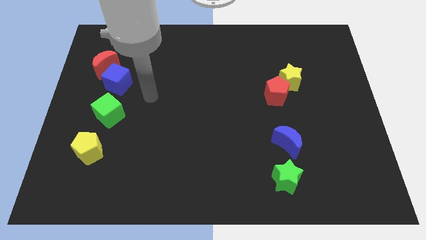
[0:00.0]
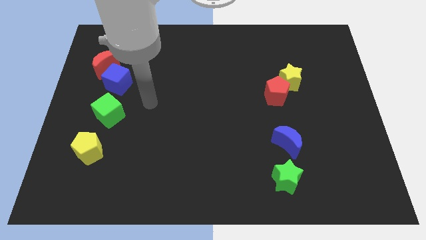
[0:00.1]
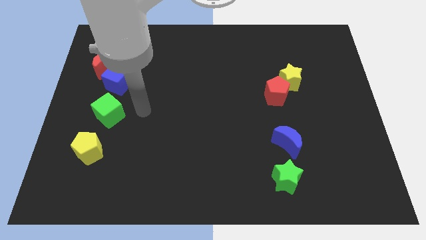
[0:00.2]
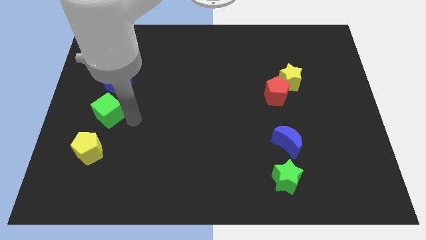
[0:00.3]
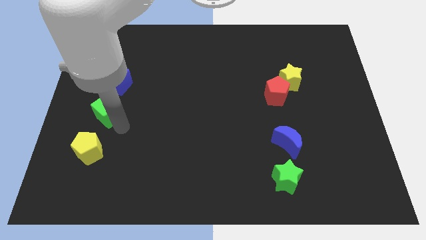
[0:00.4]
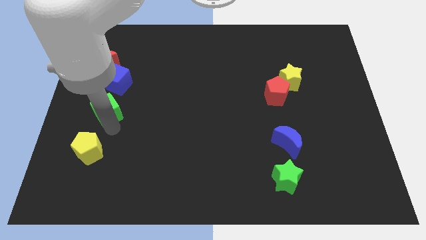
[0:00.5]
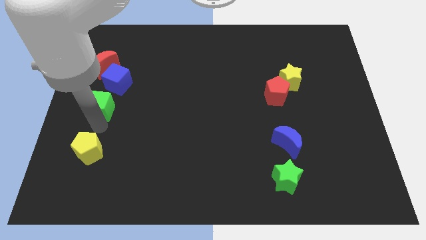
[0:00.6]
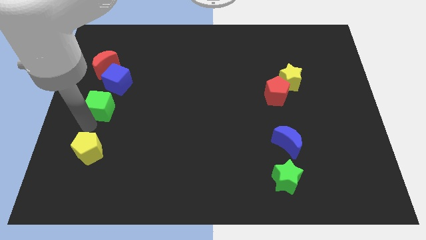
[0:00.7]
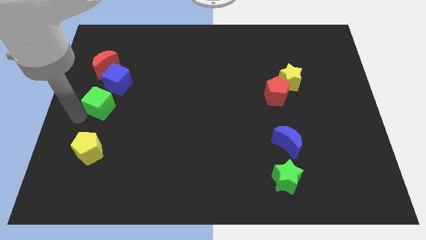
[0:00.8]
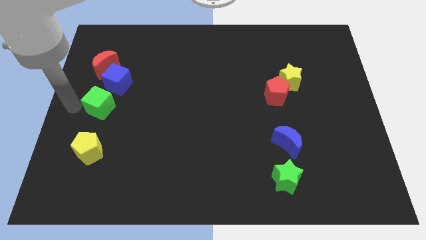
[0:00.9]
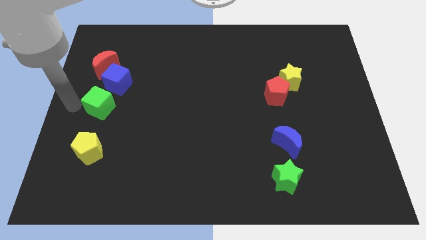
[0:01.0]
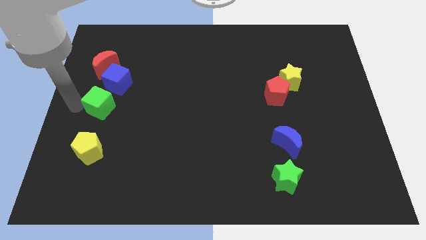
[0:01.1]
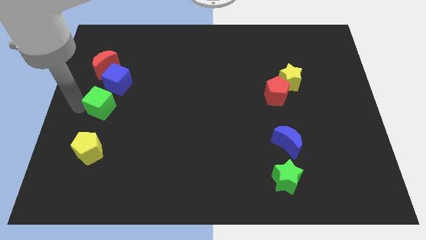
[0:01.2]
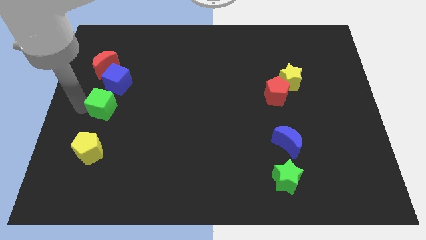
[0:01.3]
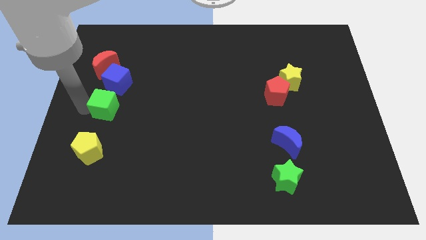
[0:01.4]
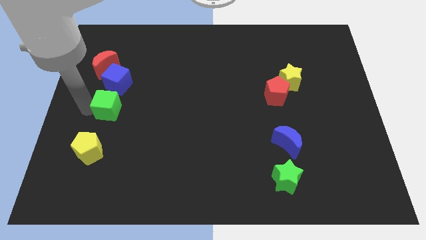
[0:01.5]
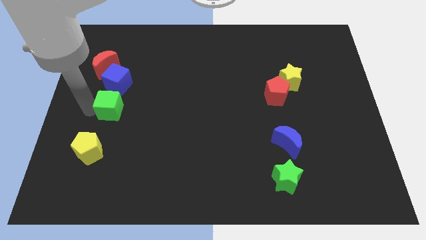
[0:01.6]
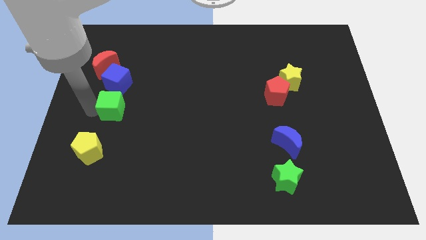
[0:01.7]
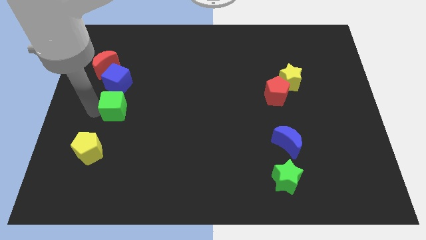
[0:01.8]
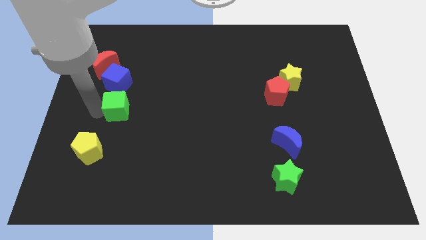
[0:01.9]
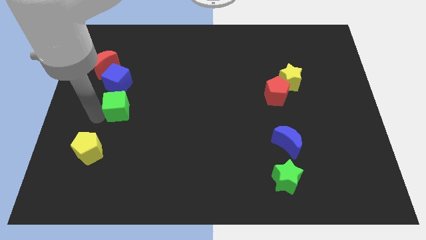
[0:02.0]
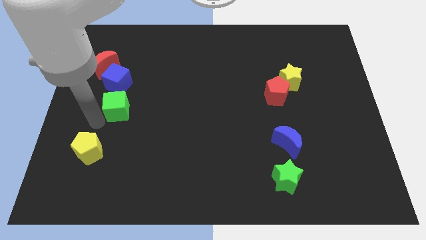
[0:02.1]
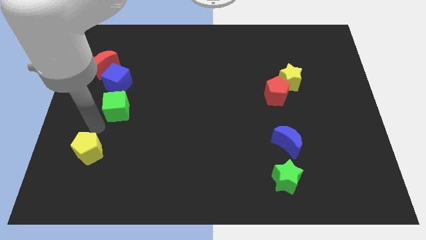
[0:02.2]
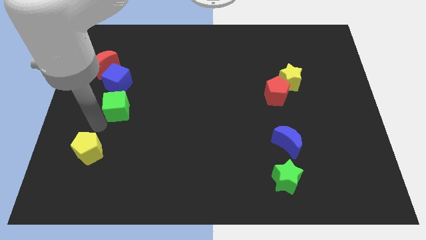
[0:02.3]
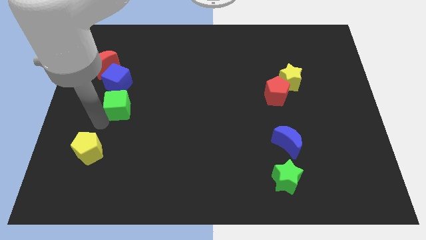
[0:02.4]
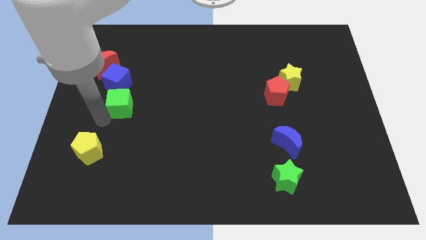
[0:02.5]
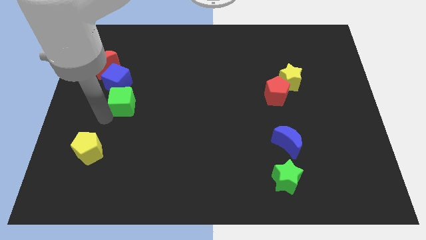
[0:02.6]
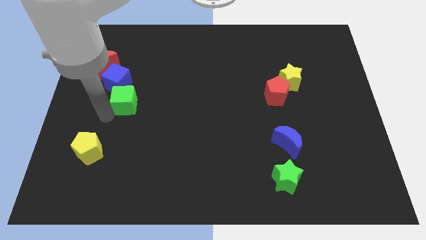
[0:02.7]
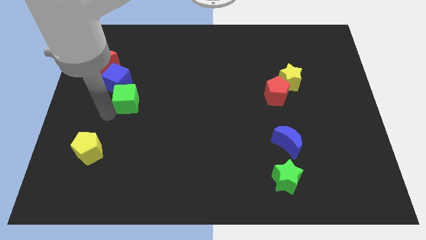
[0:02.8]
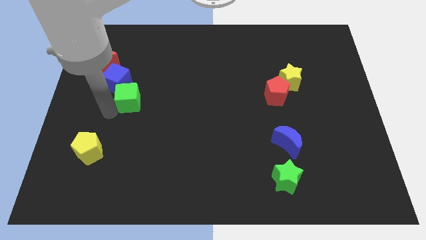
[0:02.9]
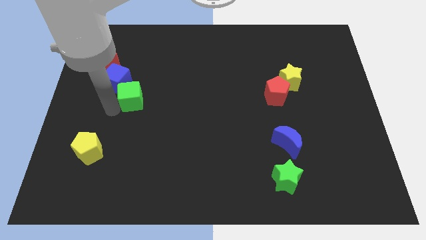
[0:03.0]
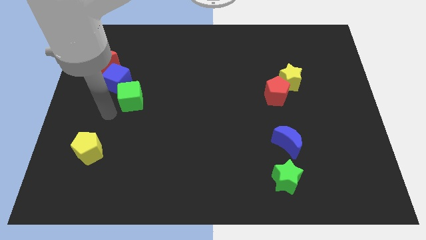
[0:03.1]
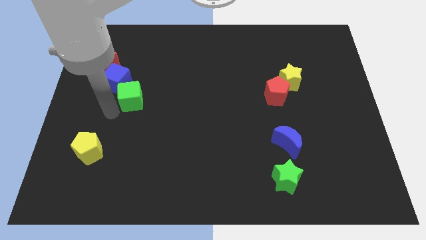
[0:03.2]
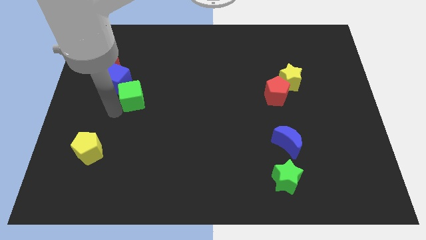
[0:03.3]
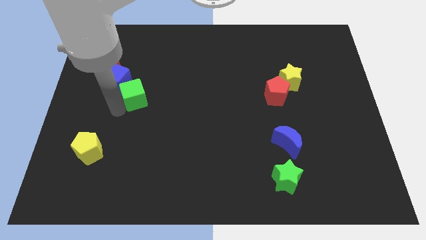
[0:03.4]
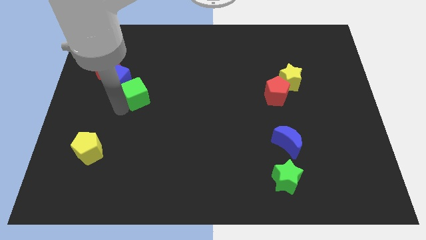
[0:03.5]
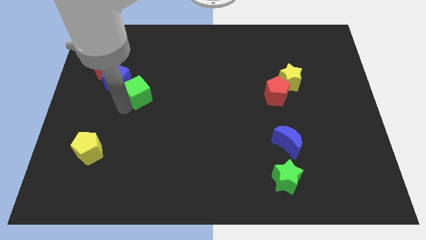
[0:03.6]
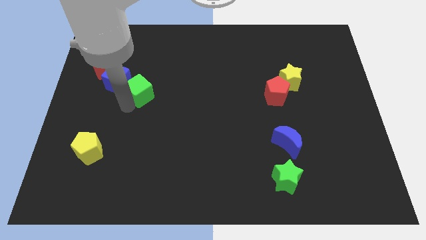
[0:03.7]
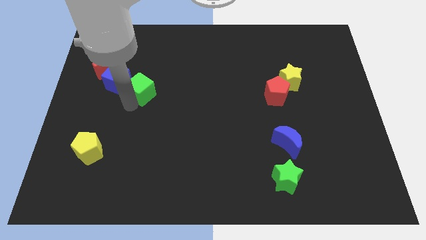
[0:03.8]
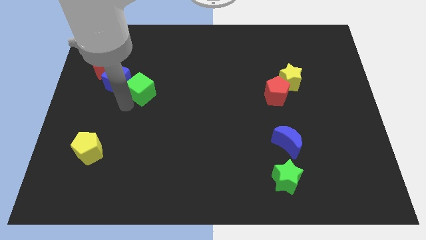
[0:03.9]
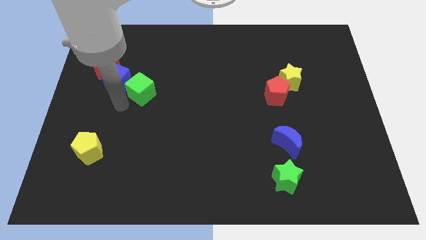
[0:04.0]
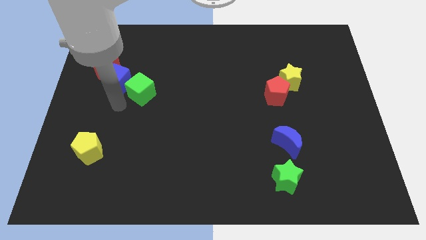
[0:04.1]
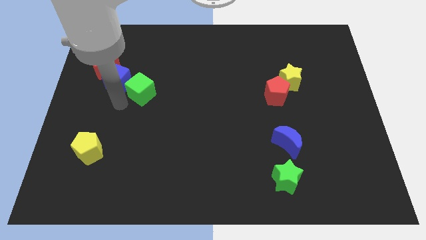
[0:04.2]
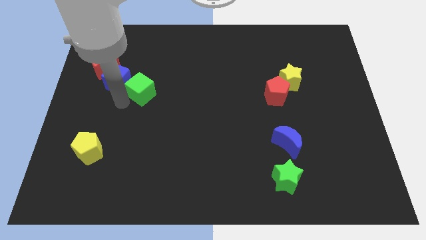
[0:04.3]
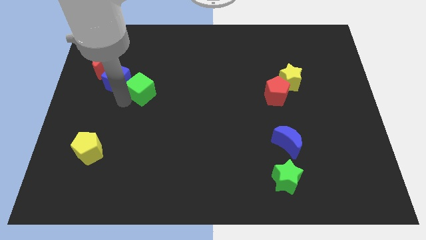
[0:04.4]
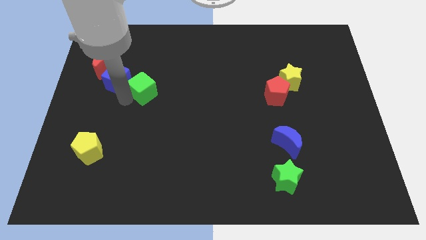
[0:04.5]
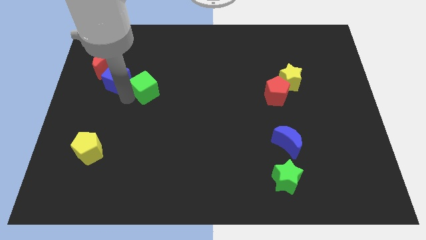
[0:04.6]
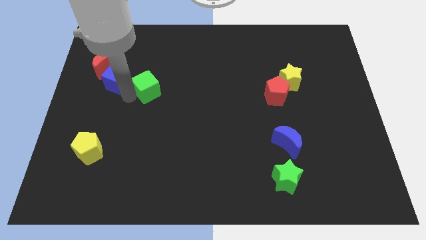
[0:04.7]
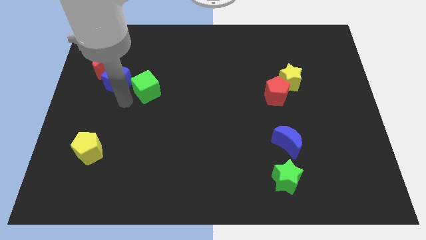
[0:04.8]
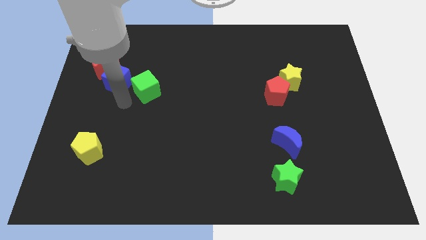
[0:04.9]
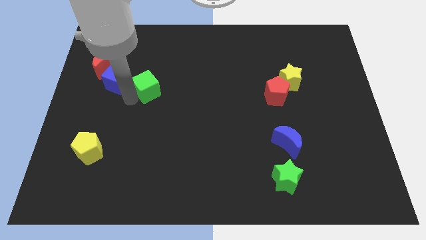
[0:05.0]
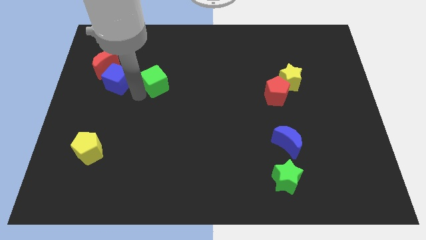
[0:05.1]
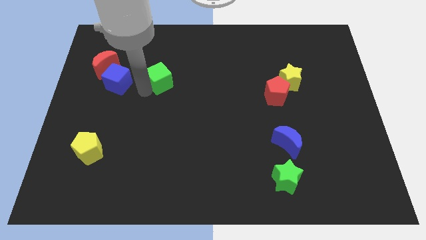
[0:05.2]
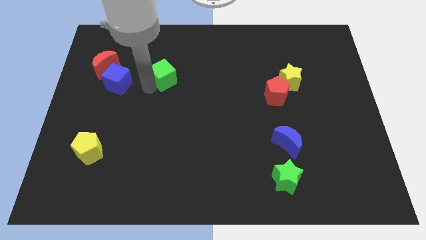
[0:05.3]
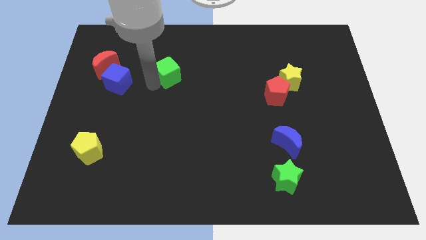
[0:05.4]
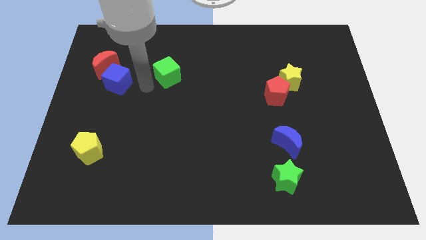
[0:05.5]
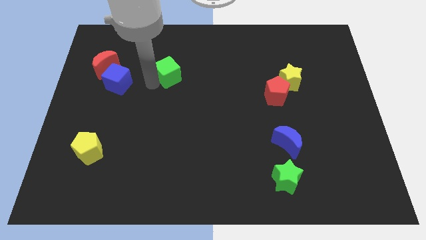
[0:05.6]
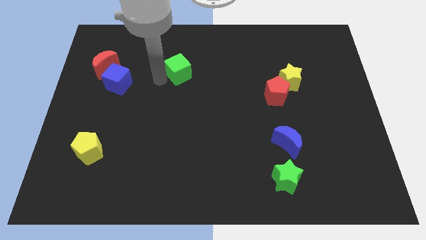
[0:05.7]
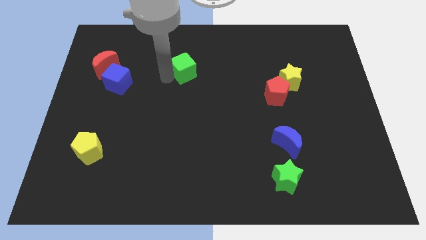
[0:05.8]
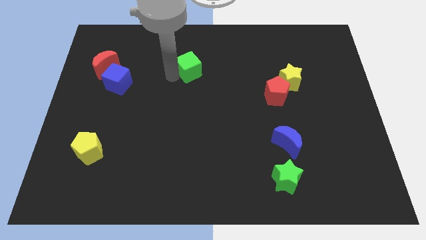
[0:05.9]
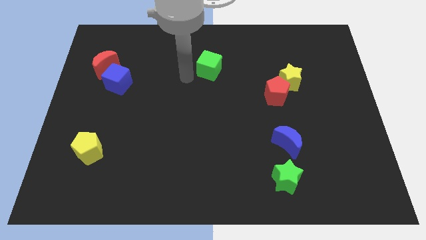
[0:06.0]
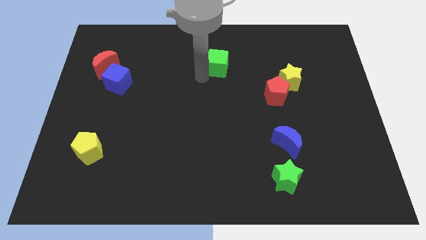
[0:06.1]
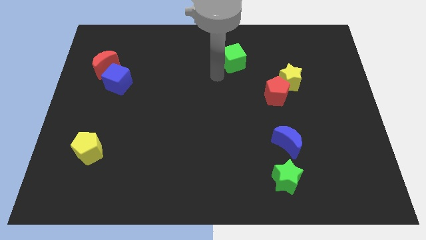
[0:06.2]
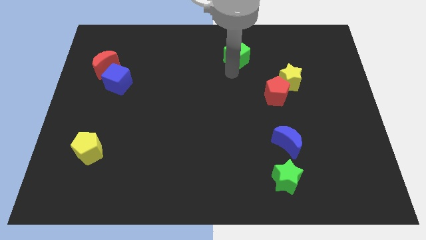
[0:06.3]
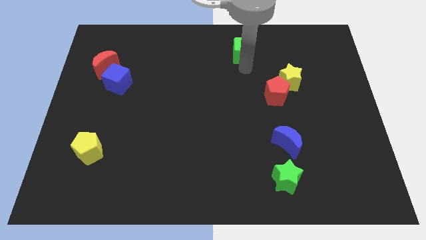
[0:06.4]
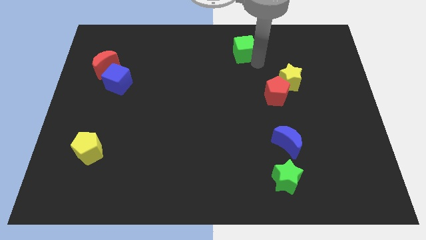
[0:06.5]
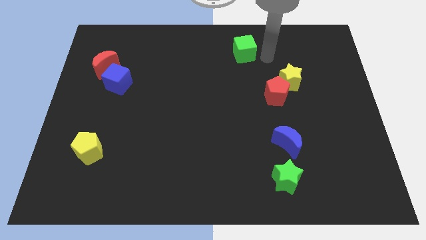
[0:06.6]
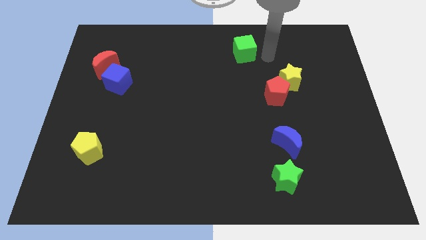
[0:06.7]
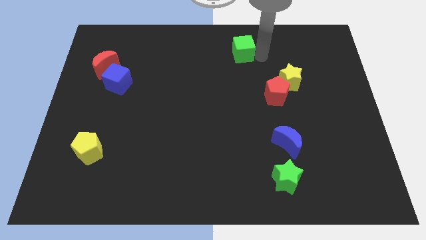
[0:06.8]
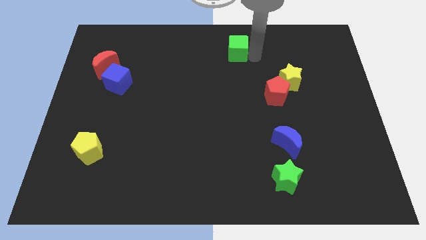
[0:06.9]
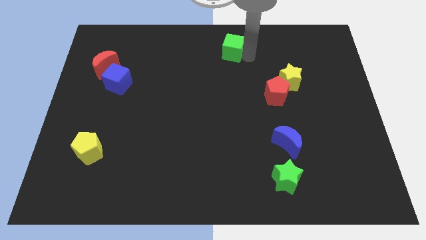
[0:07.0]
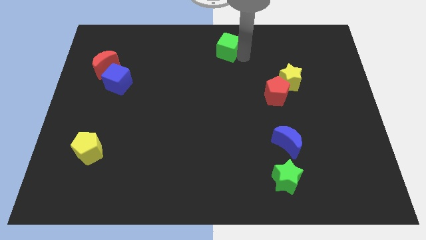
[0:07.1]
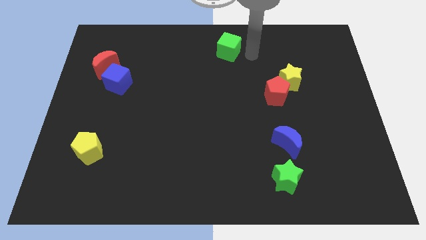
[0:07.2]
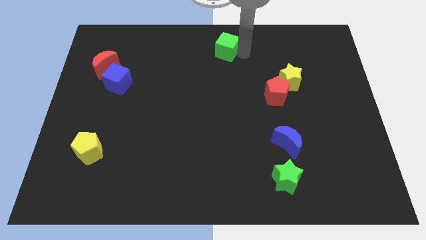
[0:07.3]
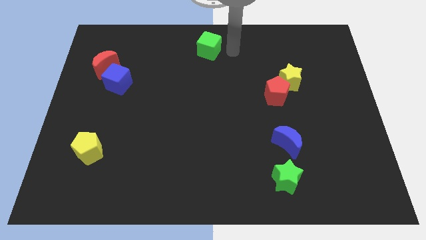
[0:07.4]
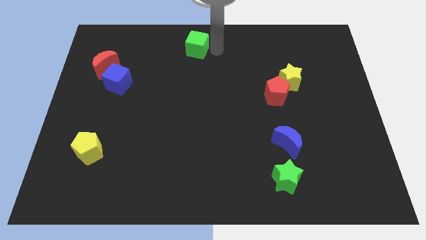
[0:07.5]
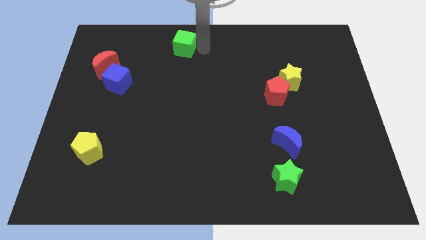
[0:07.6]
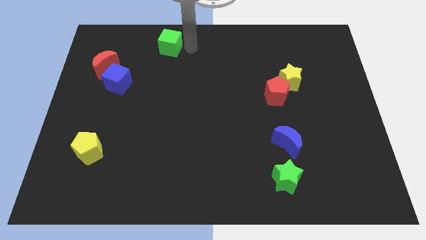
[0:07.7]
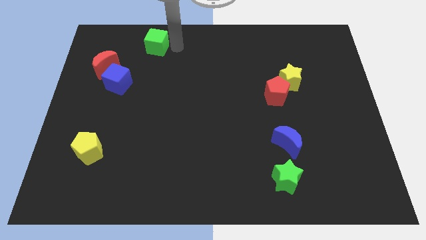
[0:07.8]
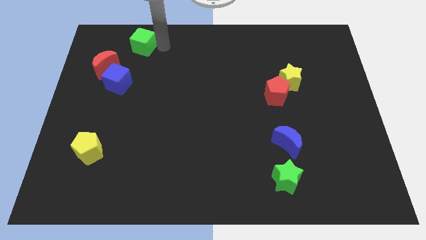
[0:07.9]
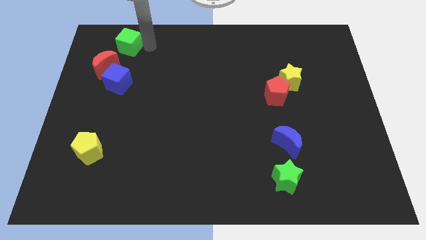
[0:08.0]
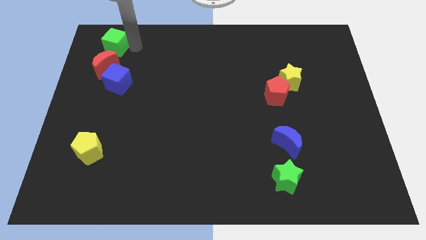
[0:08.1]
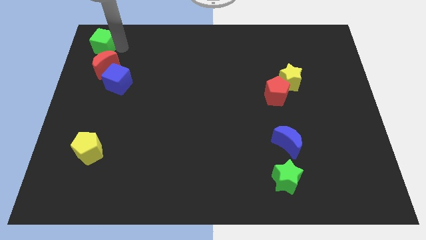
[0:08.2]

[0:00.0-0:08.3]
move the green cube to the top left
